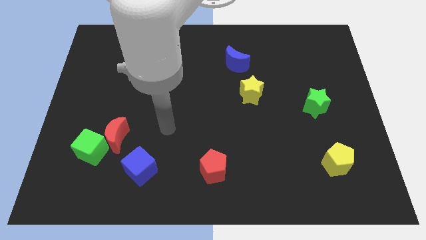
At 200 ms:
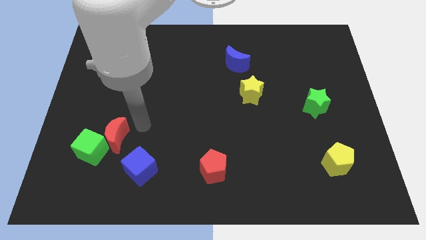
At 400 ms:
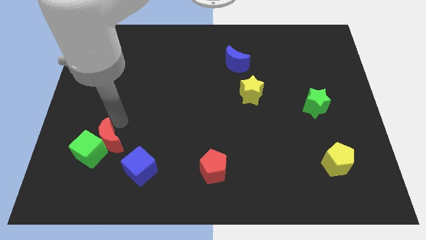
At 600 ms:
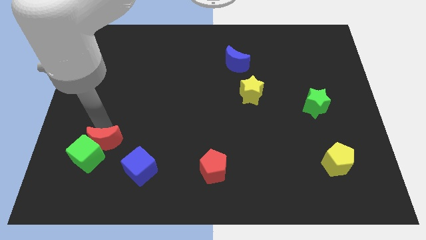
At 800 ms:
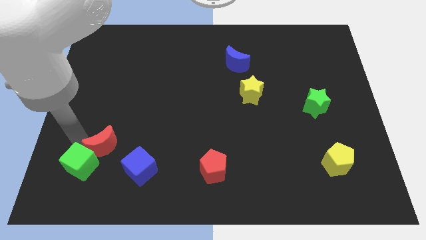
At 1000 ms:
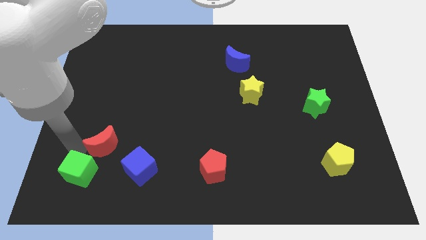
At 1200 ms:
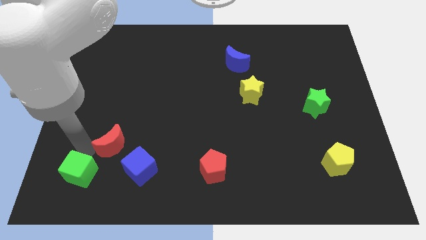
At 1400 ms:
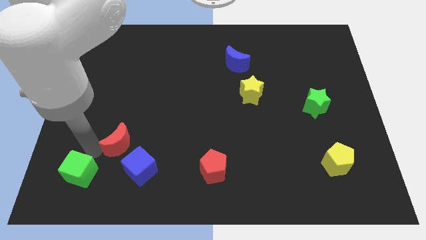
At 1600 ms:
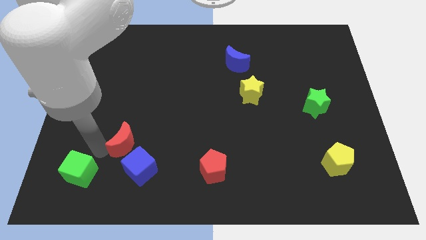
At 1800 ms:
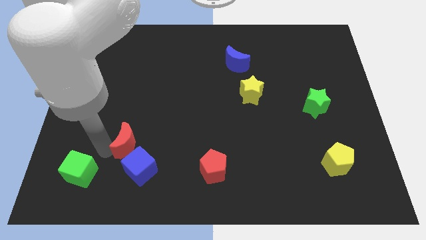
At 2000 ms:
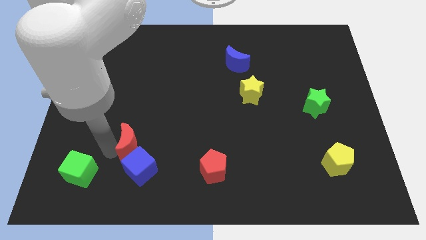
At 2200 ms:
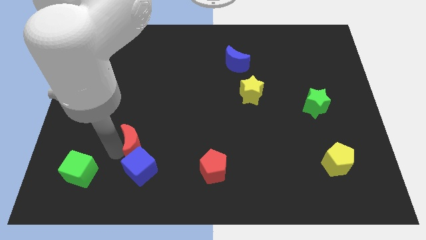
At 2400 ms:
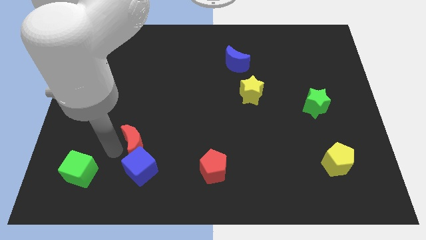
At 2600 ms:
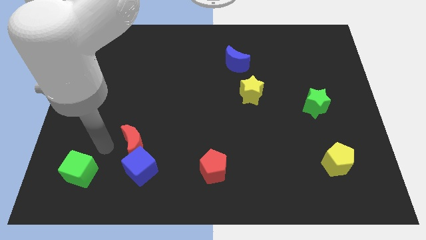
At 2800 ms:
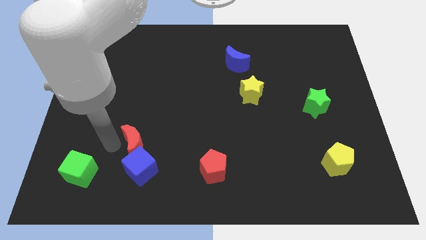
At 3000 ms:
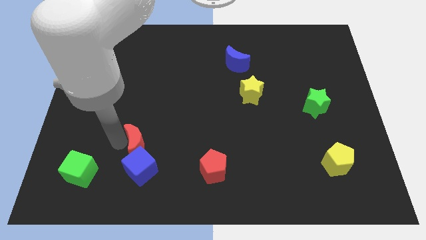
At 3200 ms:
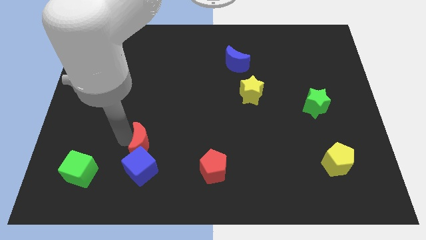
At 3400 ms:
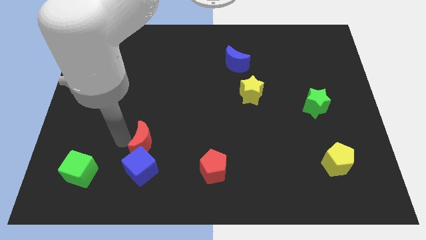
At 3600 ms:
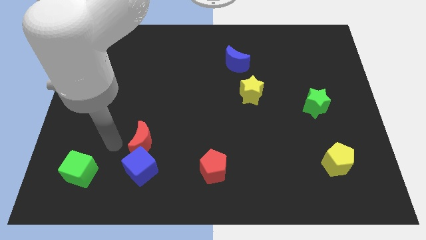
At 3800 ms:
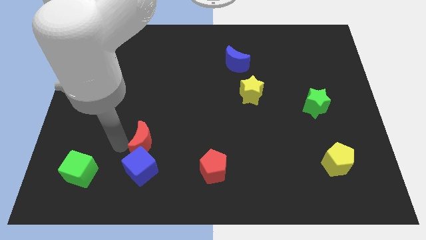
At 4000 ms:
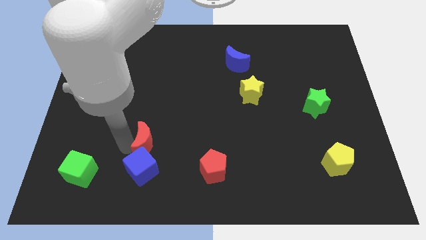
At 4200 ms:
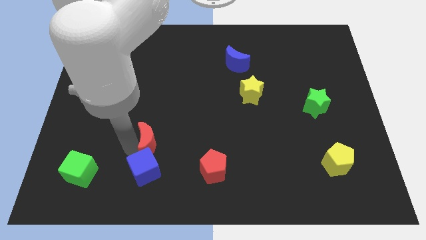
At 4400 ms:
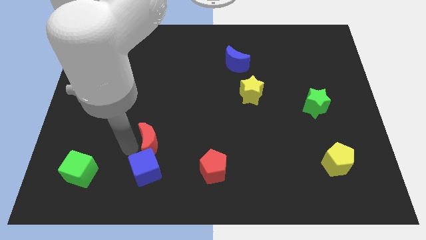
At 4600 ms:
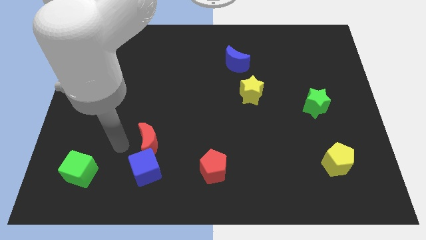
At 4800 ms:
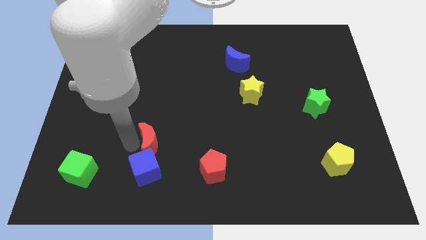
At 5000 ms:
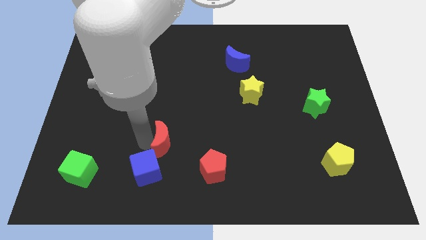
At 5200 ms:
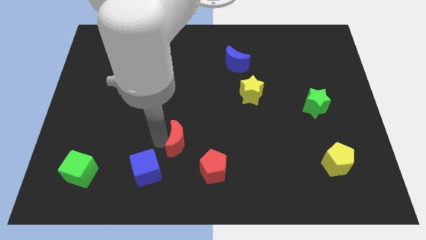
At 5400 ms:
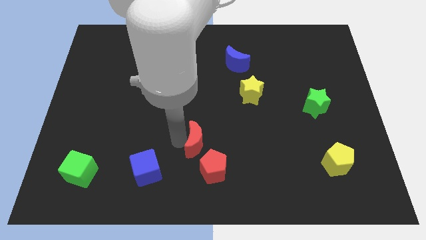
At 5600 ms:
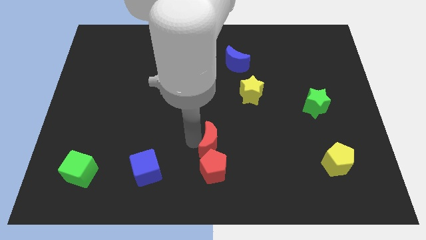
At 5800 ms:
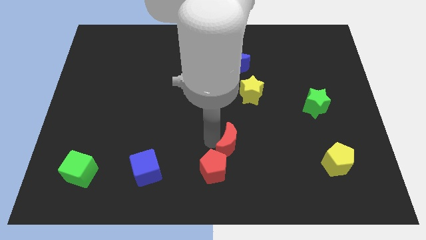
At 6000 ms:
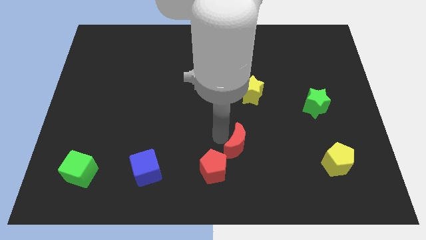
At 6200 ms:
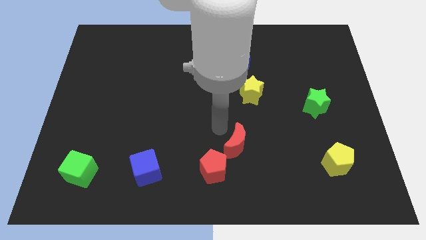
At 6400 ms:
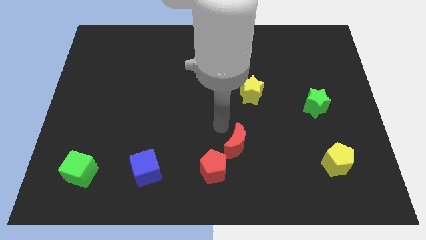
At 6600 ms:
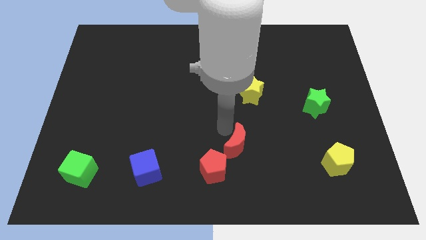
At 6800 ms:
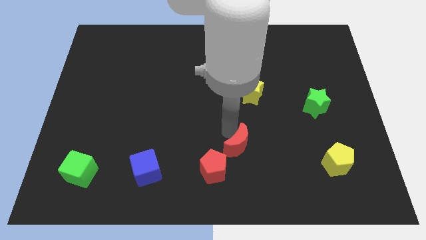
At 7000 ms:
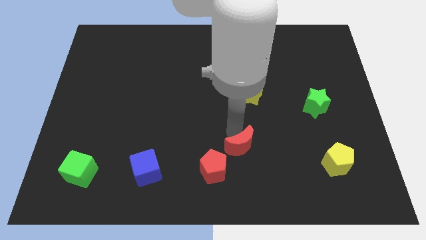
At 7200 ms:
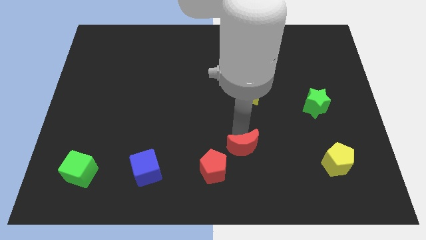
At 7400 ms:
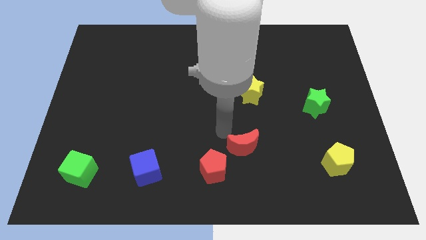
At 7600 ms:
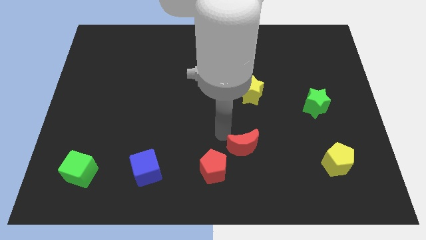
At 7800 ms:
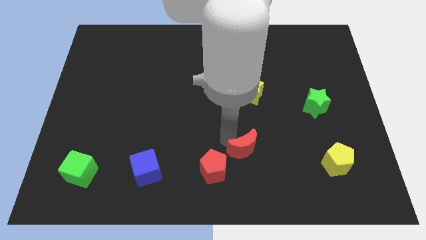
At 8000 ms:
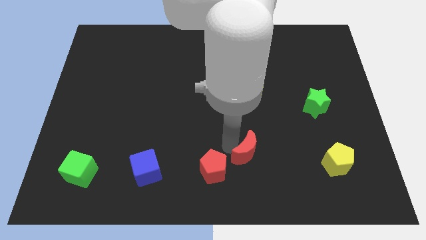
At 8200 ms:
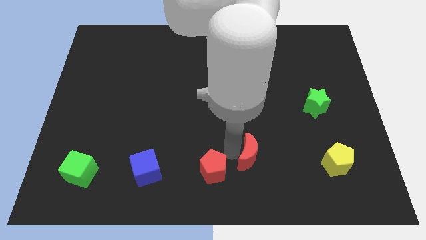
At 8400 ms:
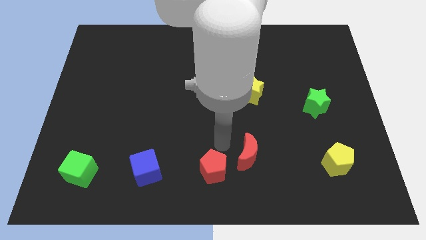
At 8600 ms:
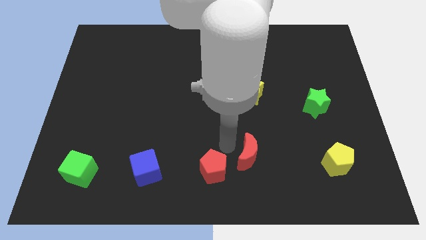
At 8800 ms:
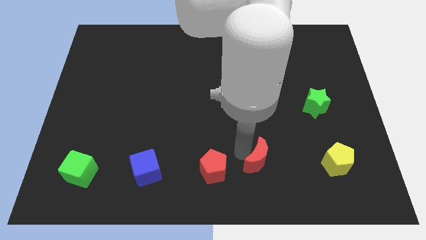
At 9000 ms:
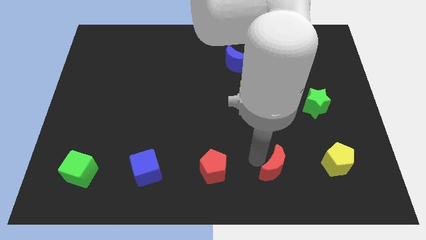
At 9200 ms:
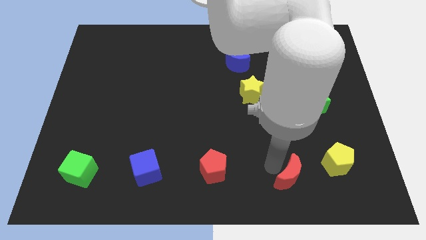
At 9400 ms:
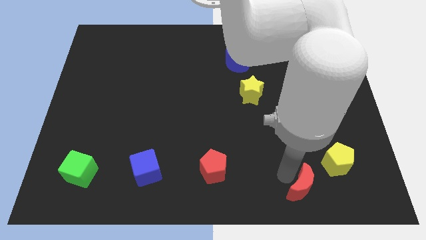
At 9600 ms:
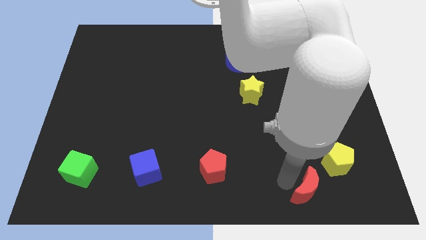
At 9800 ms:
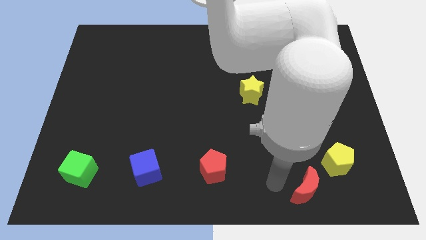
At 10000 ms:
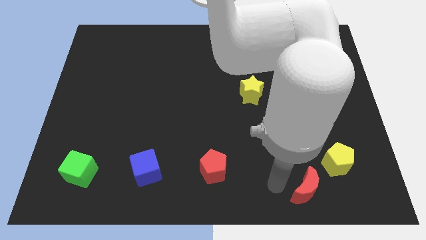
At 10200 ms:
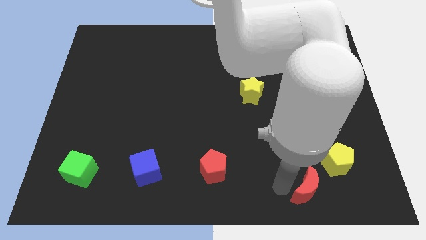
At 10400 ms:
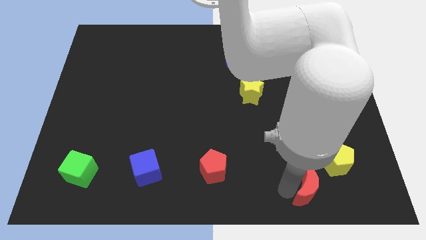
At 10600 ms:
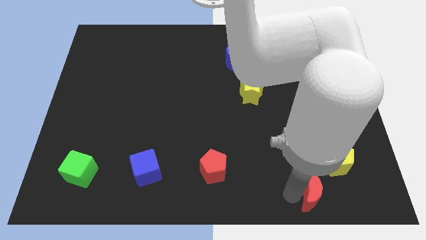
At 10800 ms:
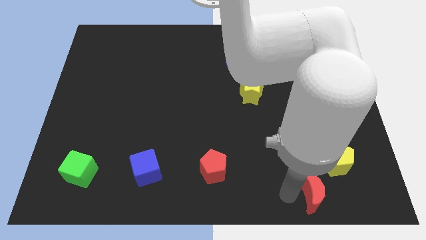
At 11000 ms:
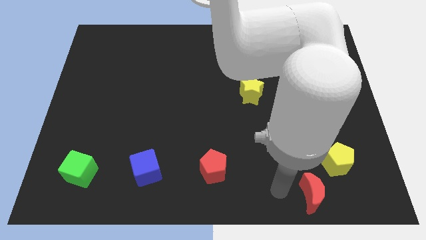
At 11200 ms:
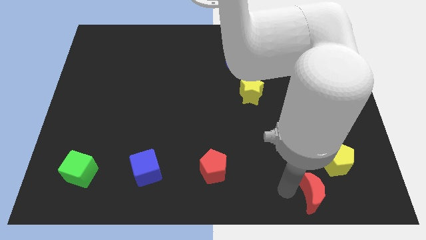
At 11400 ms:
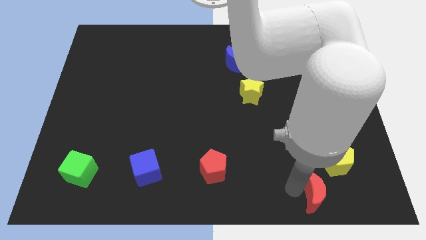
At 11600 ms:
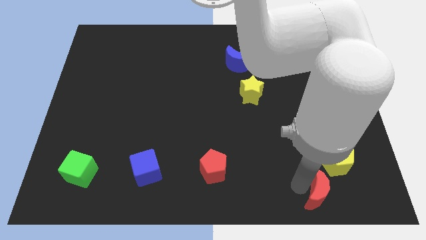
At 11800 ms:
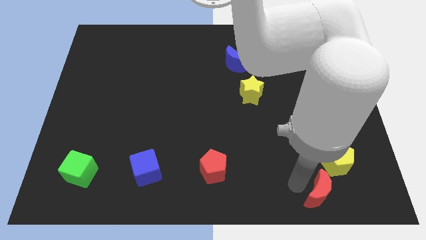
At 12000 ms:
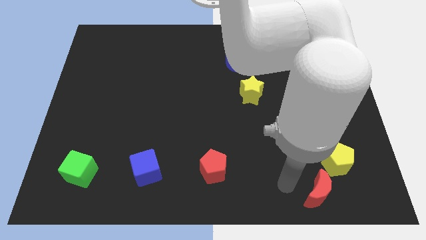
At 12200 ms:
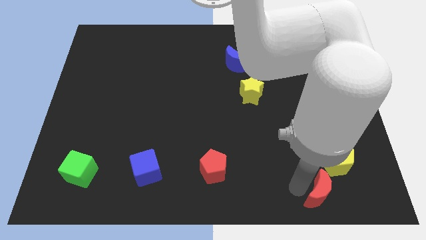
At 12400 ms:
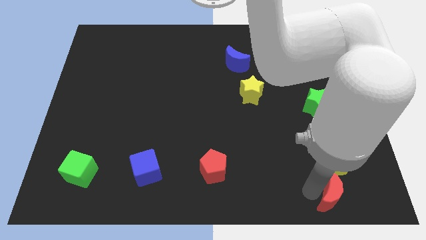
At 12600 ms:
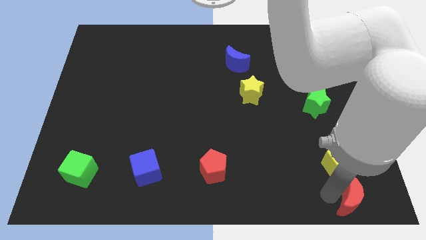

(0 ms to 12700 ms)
move the red moon to the bottom right corner

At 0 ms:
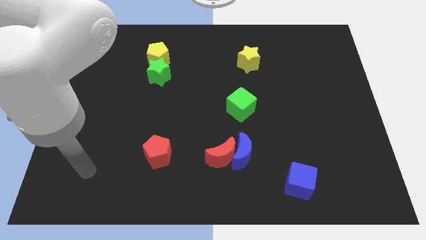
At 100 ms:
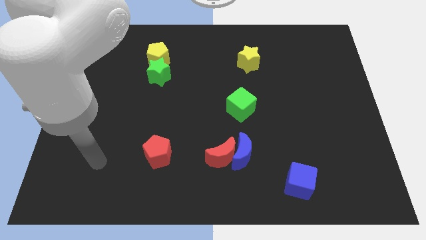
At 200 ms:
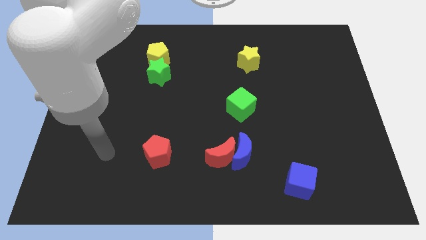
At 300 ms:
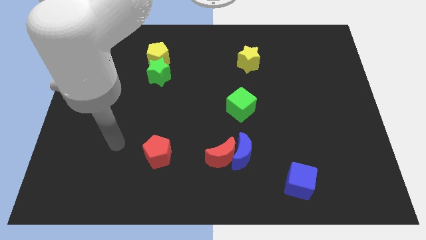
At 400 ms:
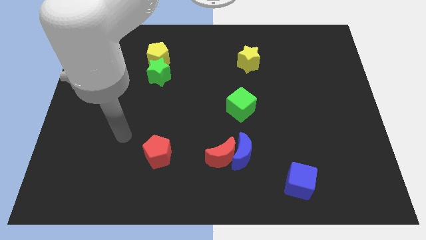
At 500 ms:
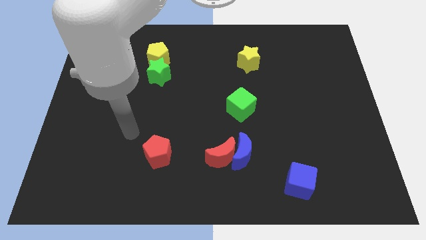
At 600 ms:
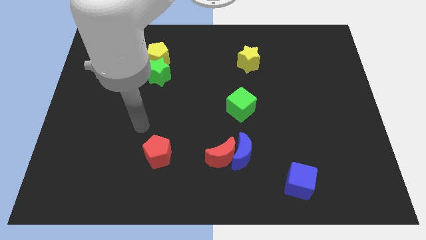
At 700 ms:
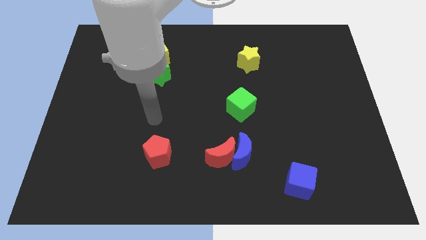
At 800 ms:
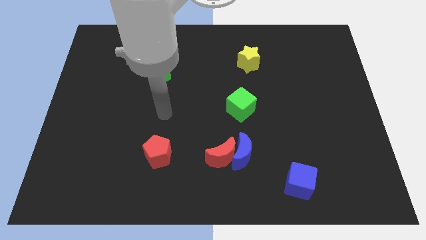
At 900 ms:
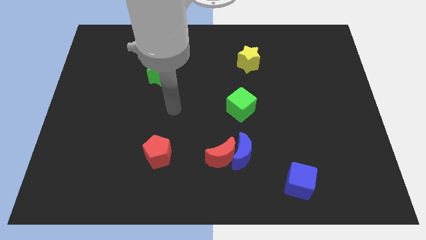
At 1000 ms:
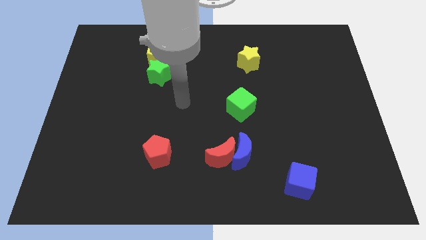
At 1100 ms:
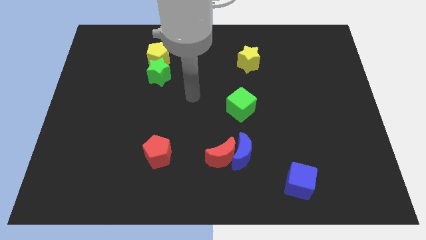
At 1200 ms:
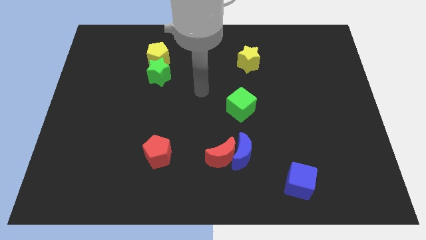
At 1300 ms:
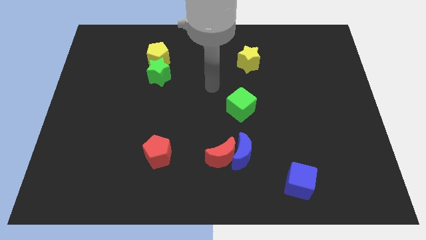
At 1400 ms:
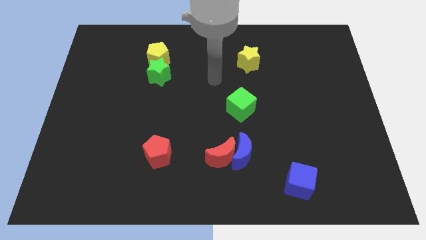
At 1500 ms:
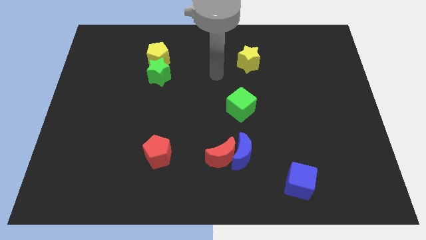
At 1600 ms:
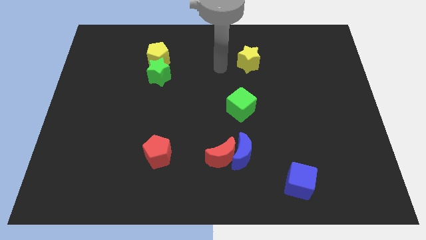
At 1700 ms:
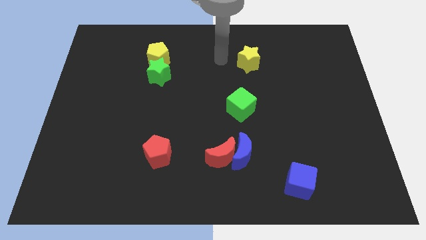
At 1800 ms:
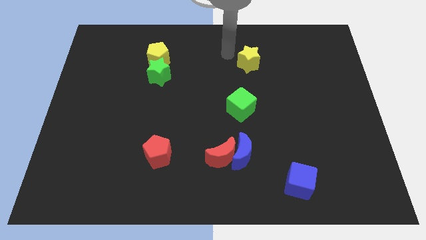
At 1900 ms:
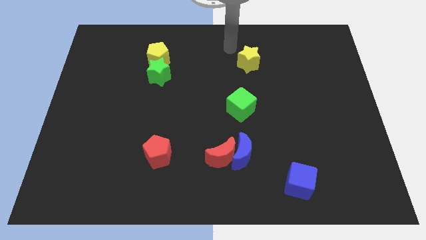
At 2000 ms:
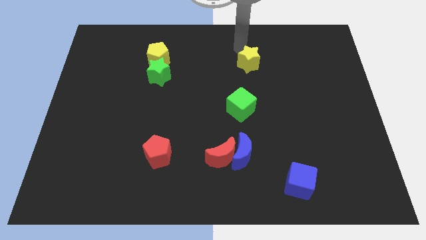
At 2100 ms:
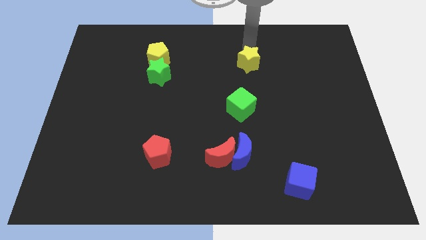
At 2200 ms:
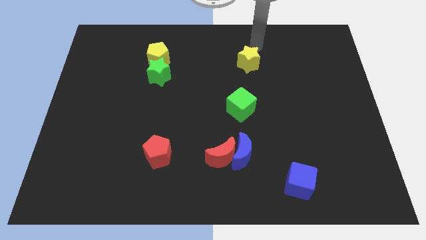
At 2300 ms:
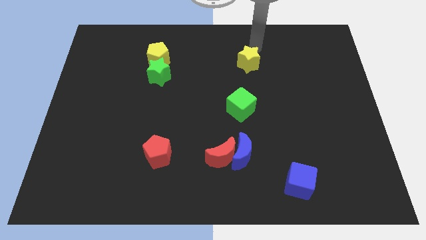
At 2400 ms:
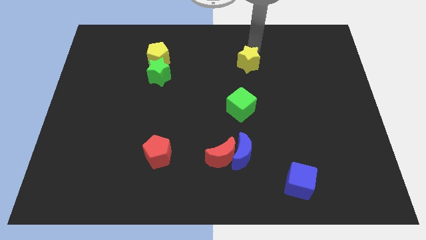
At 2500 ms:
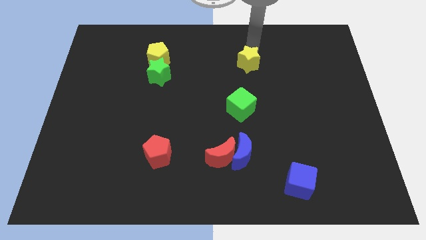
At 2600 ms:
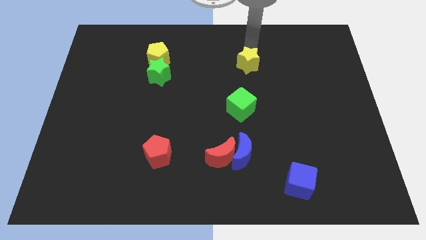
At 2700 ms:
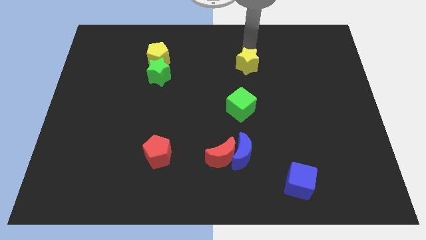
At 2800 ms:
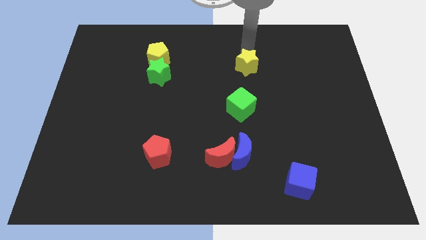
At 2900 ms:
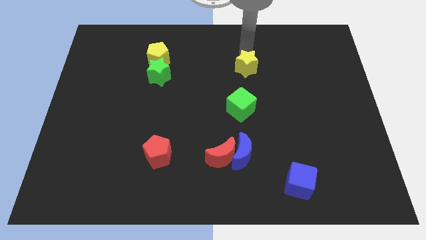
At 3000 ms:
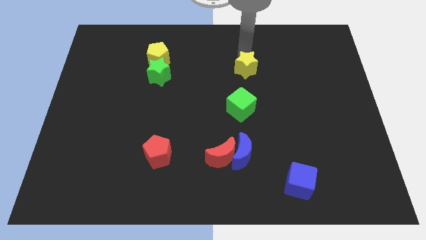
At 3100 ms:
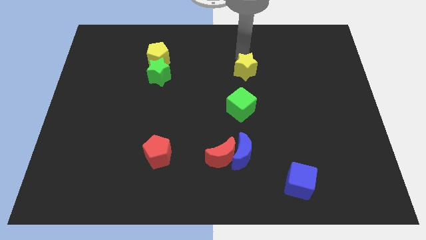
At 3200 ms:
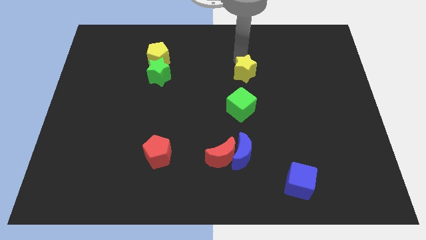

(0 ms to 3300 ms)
slide the yellow star to the center of the board
